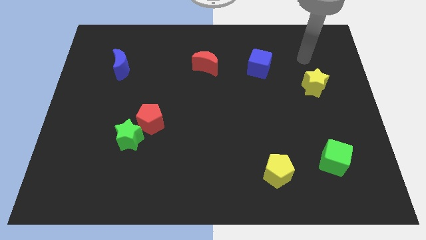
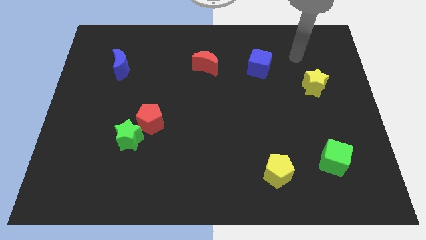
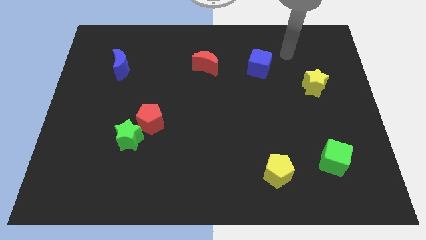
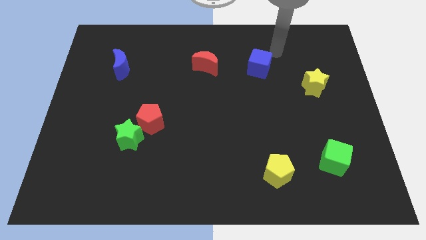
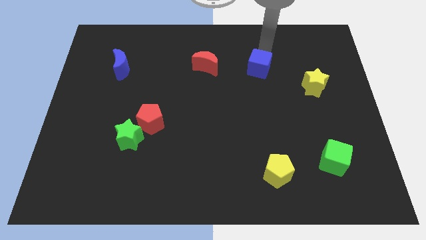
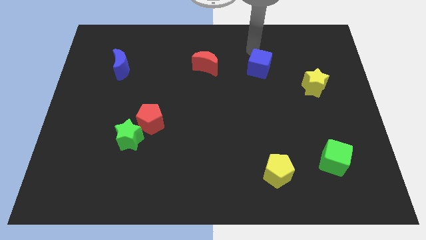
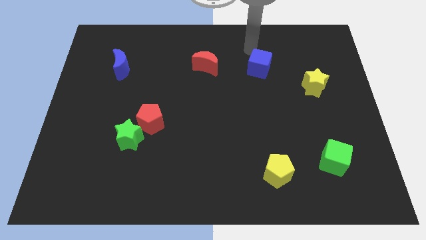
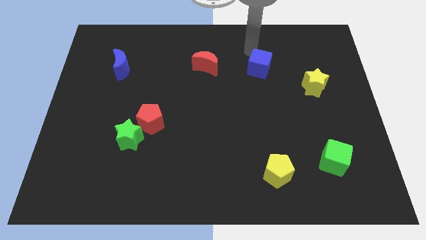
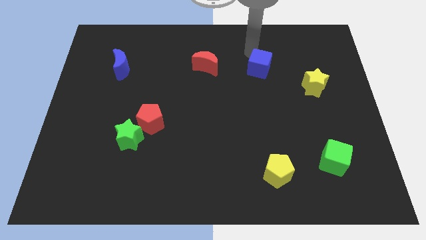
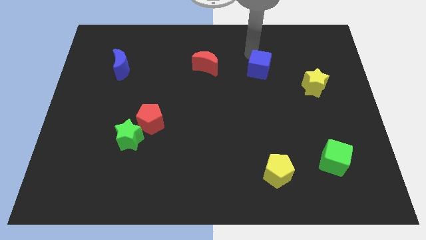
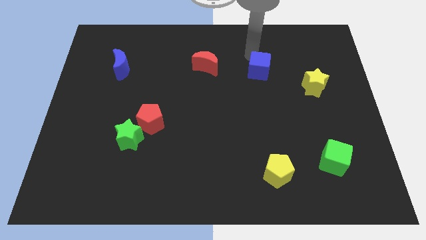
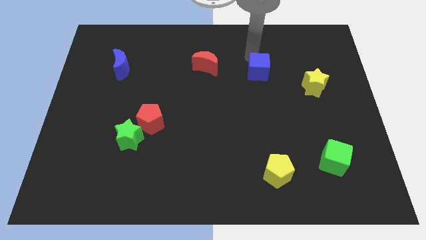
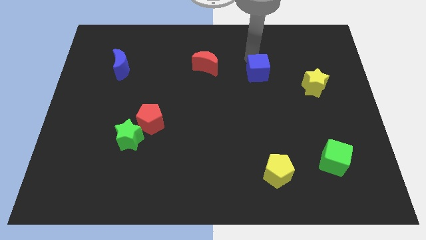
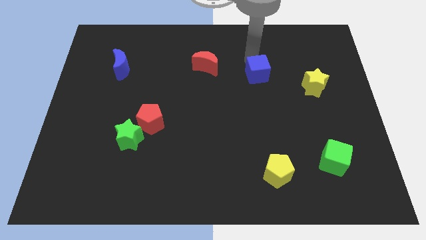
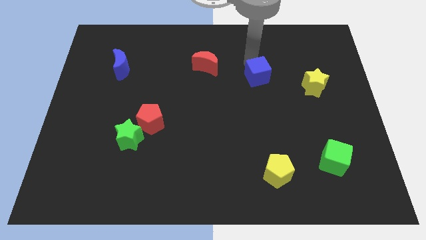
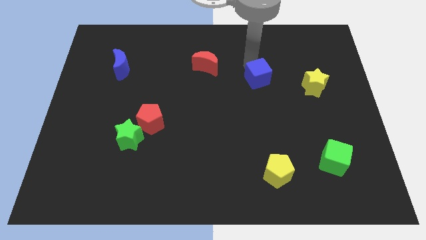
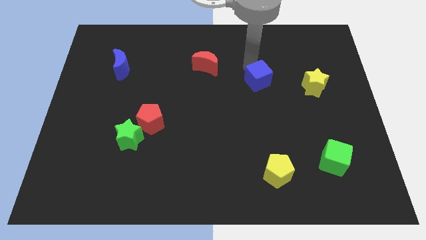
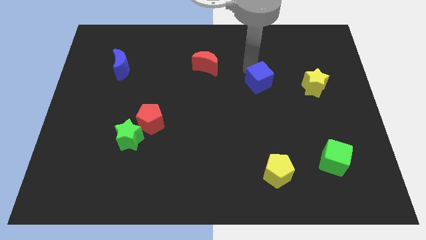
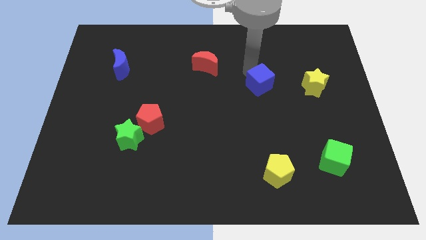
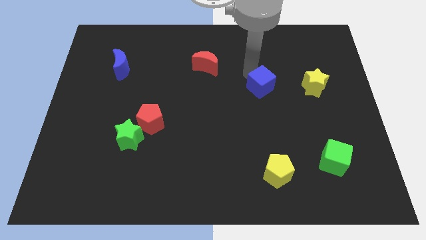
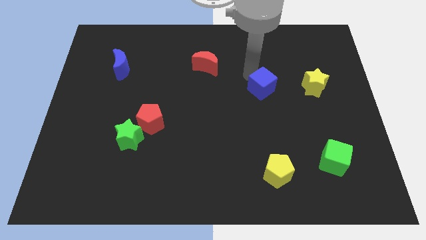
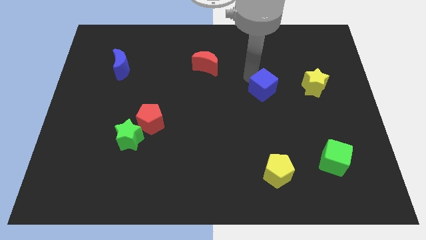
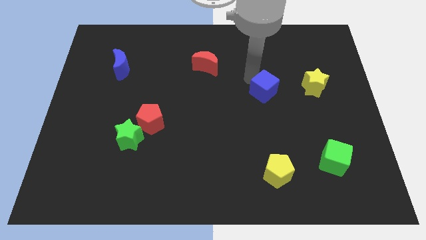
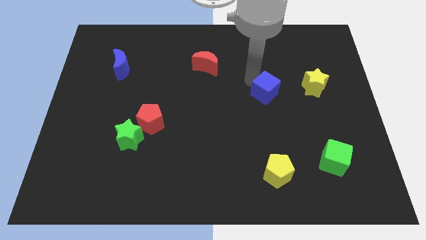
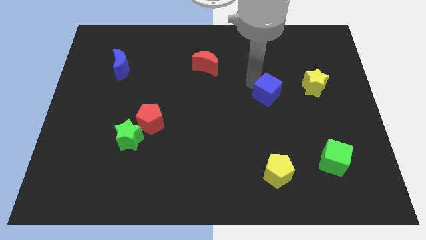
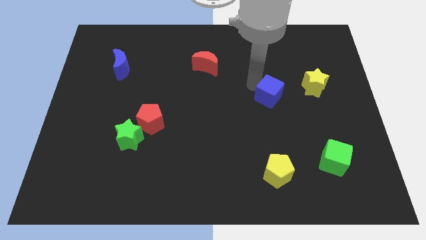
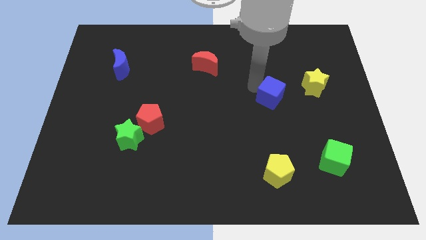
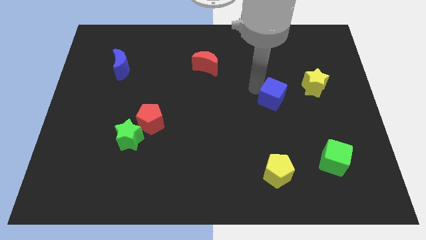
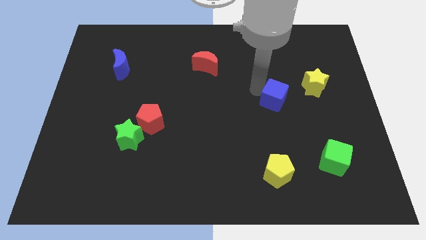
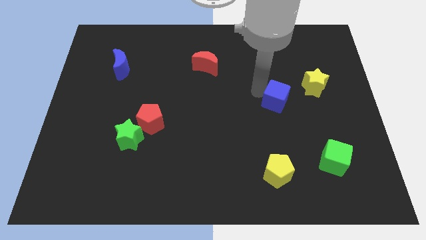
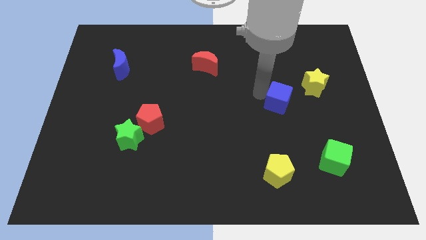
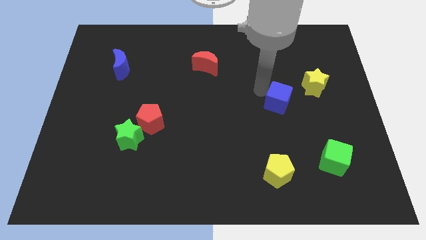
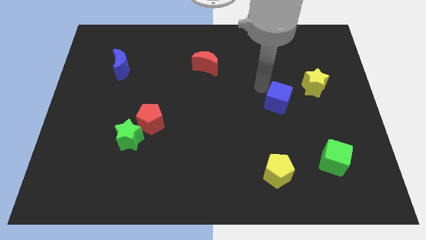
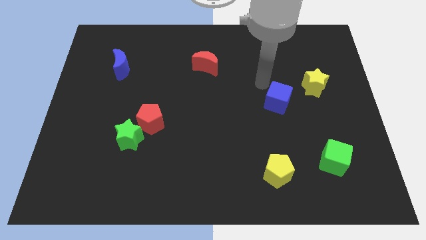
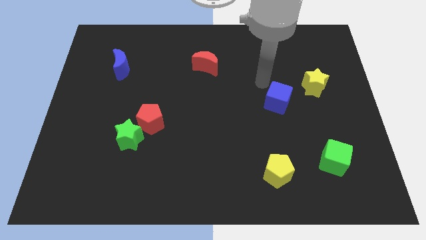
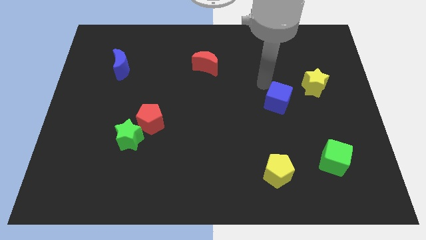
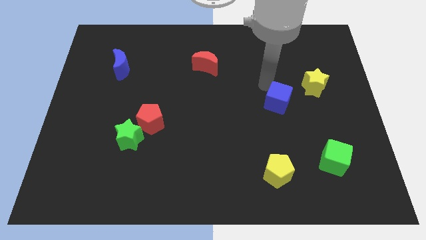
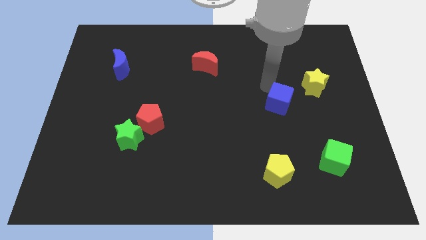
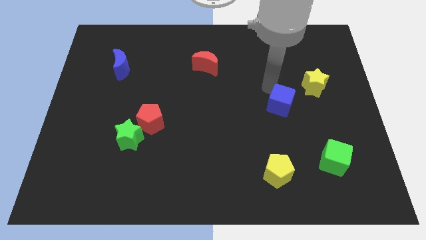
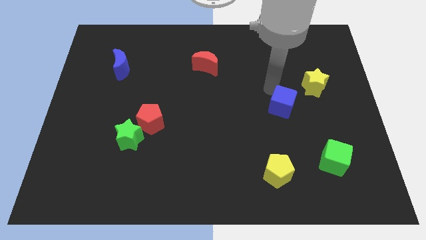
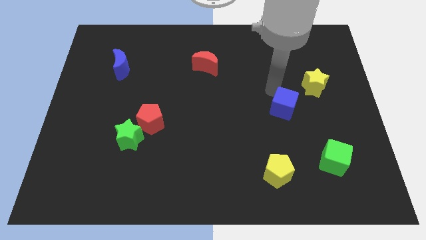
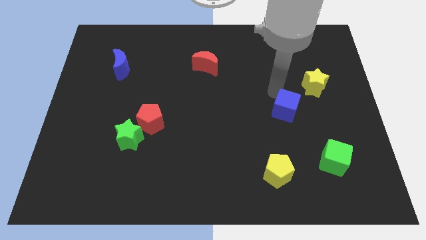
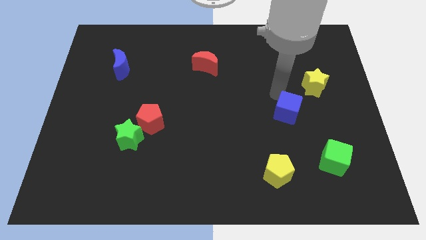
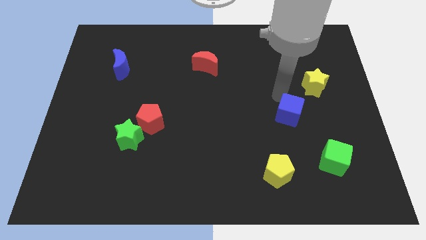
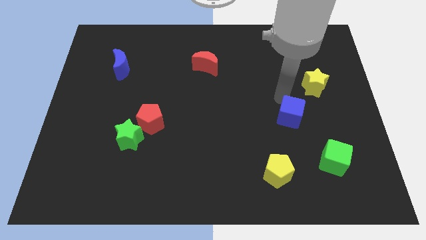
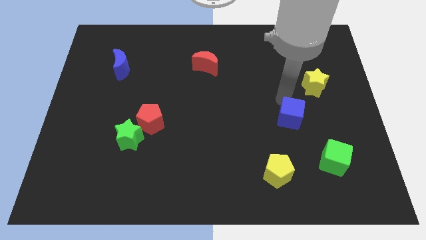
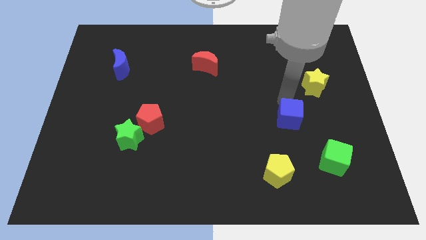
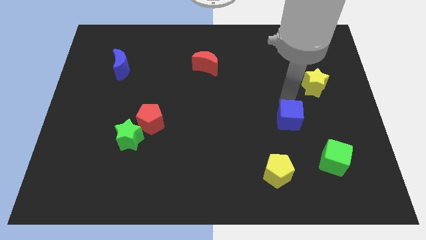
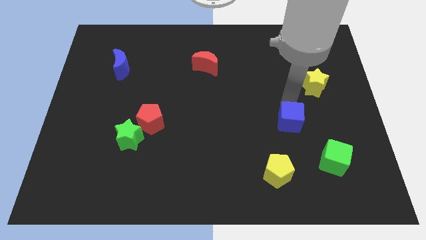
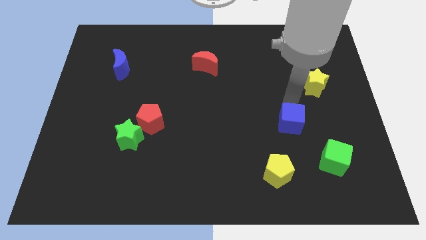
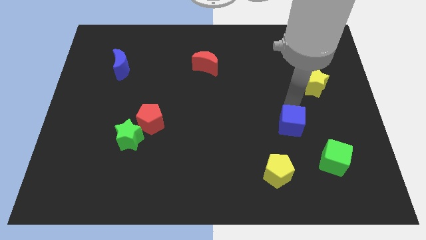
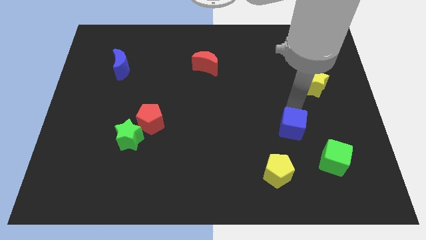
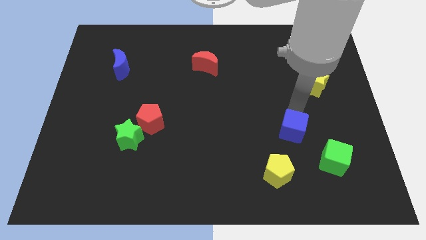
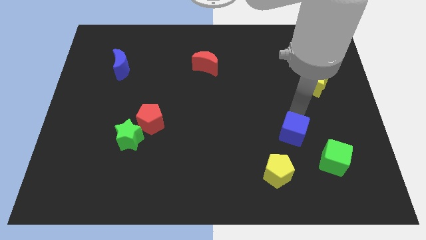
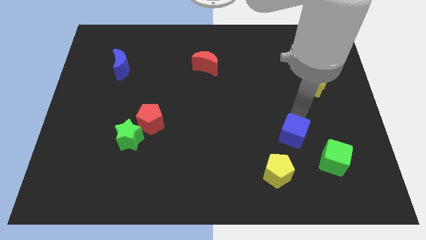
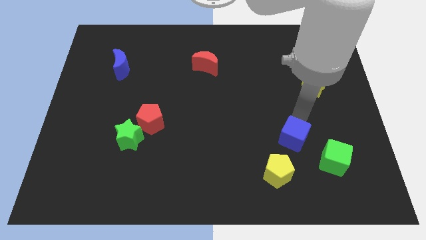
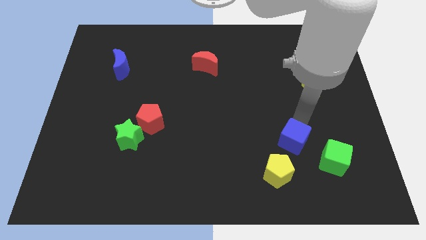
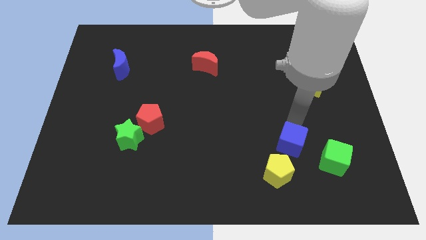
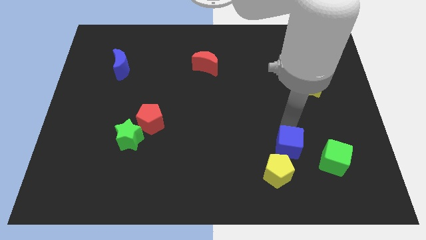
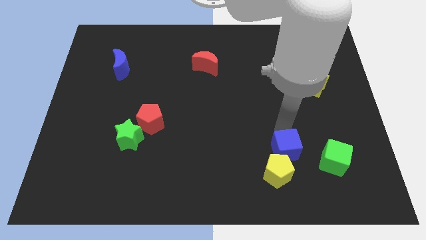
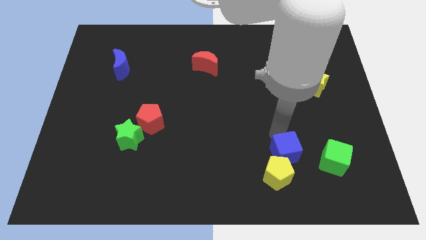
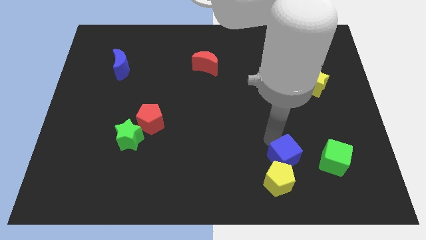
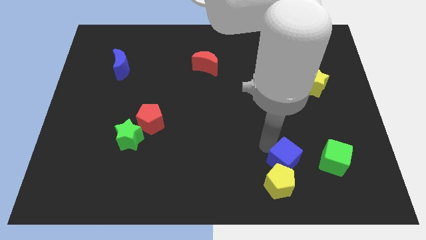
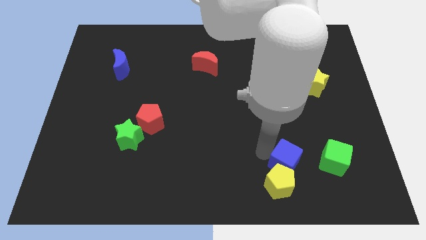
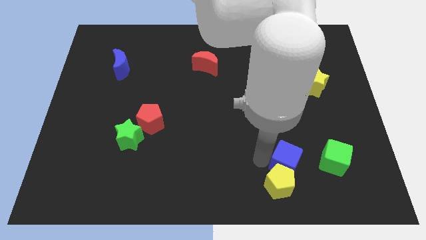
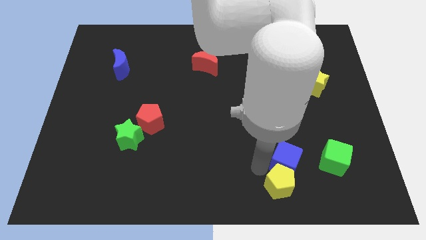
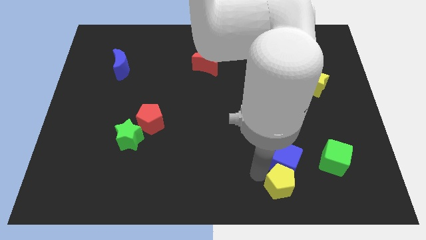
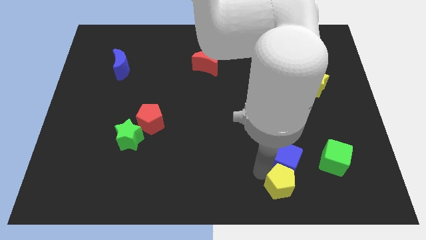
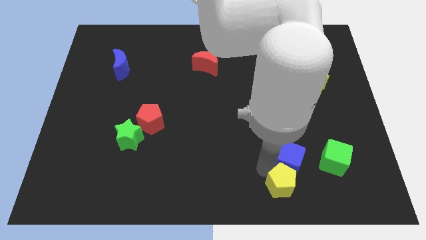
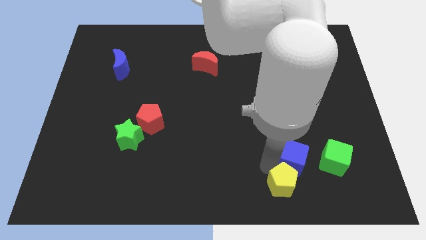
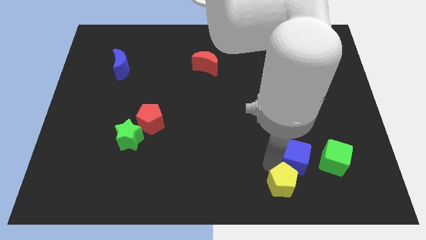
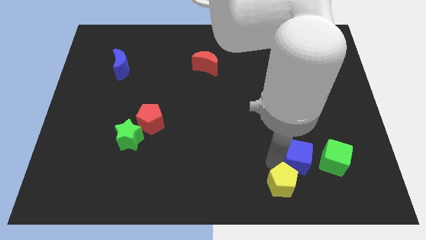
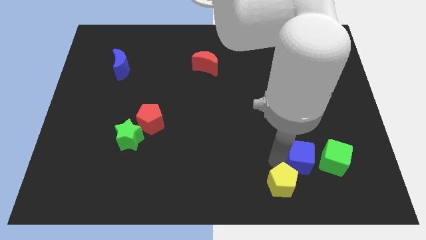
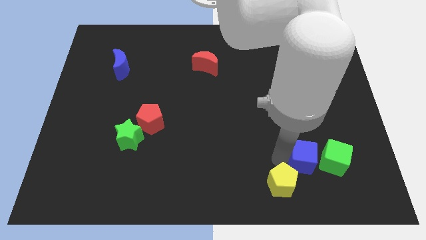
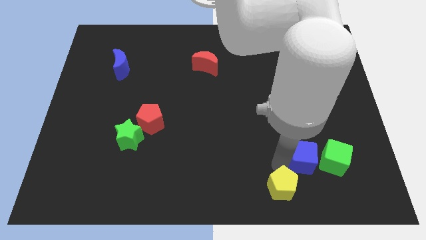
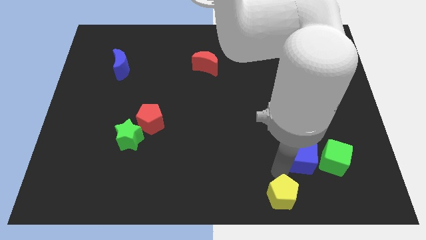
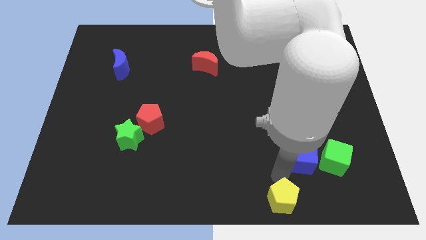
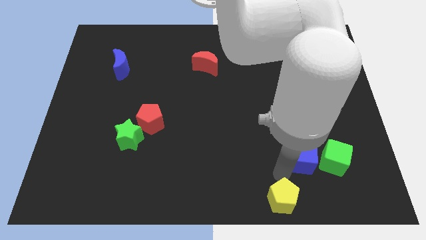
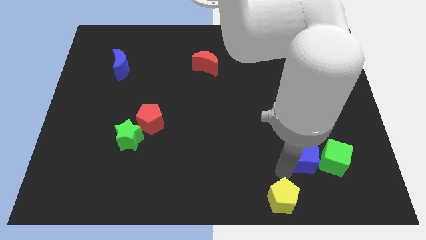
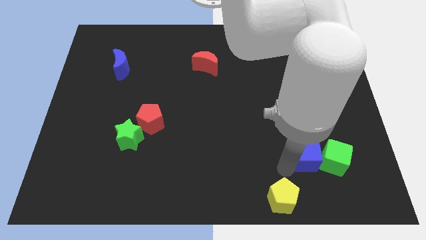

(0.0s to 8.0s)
move the blue cube next to the green cube
